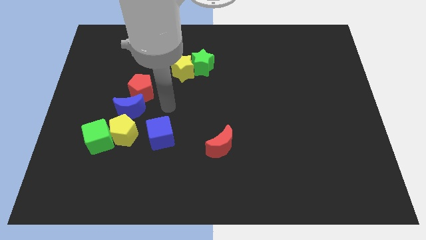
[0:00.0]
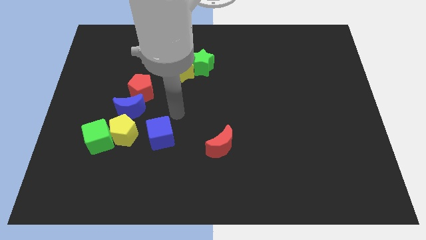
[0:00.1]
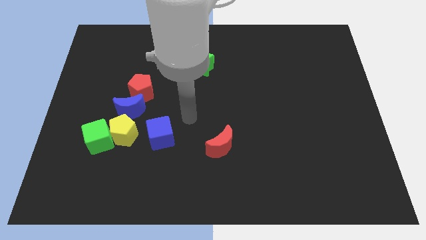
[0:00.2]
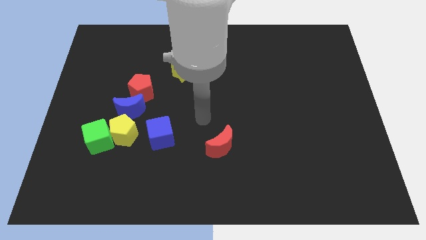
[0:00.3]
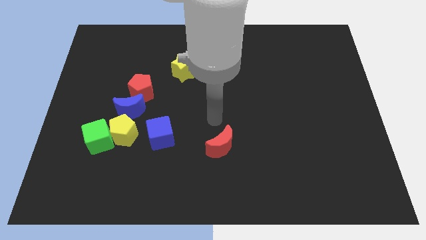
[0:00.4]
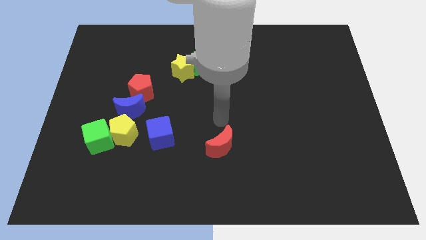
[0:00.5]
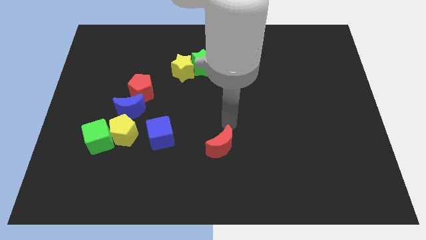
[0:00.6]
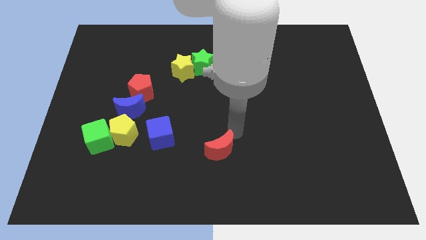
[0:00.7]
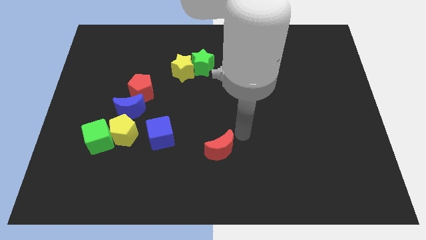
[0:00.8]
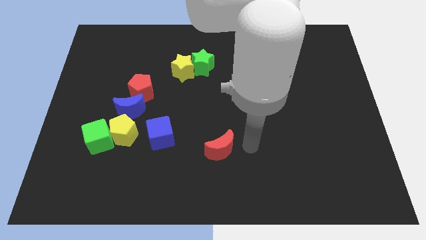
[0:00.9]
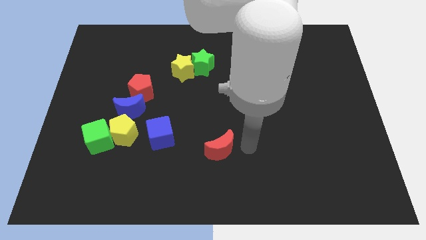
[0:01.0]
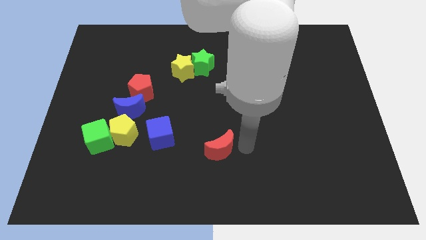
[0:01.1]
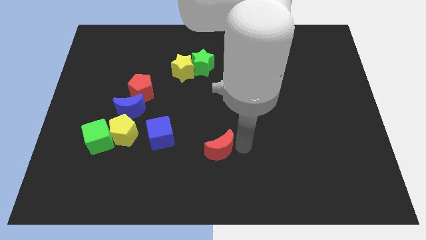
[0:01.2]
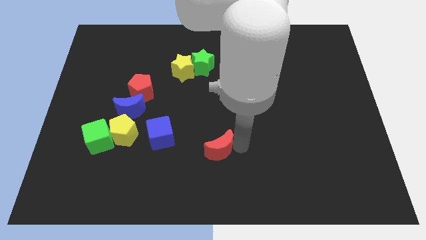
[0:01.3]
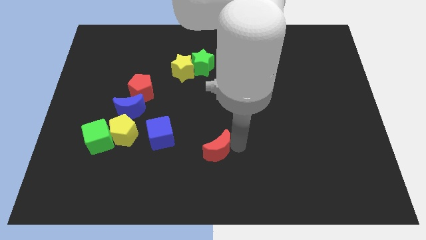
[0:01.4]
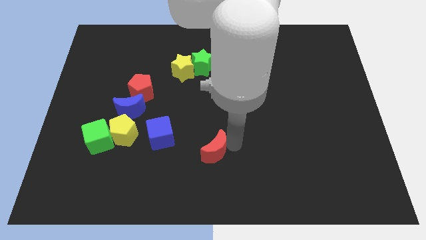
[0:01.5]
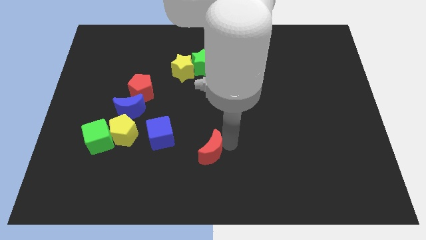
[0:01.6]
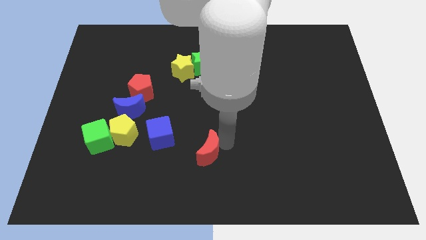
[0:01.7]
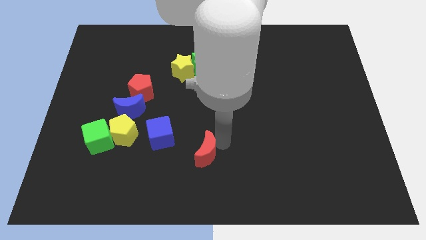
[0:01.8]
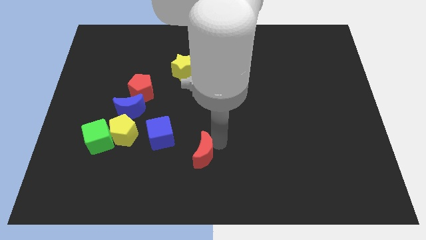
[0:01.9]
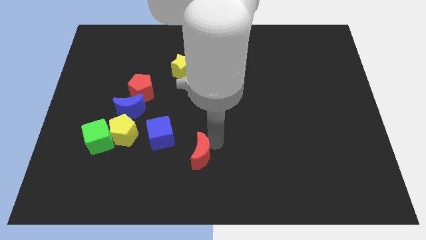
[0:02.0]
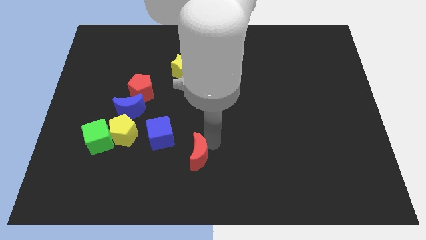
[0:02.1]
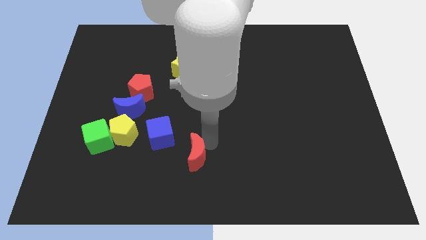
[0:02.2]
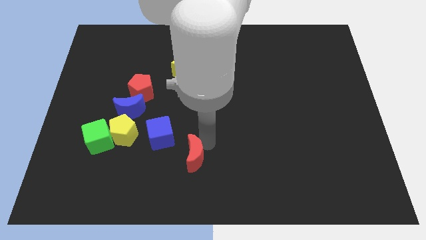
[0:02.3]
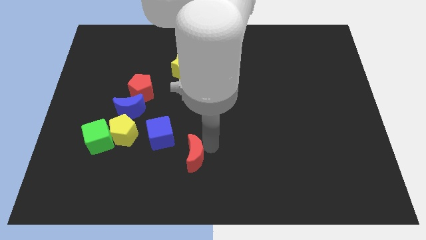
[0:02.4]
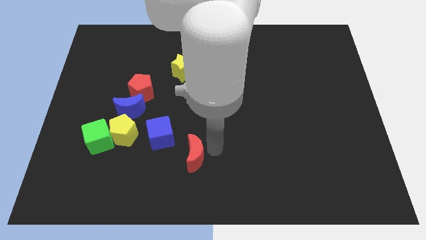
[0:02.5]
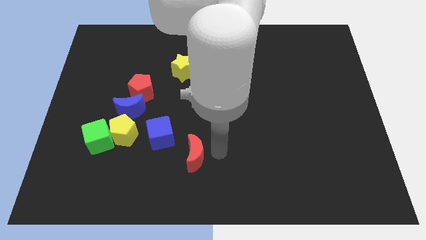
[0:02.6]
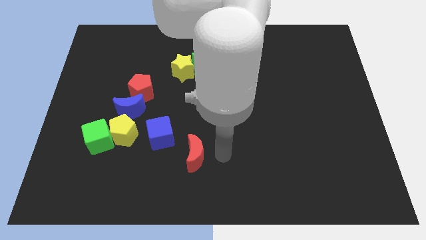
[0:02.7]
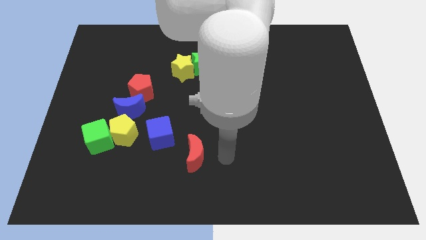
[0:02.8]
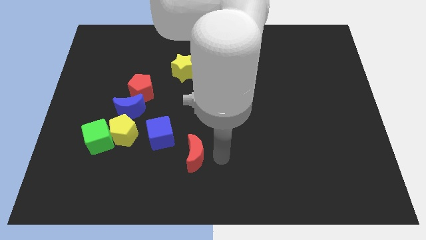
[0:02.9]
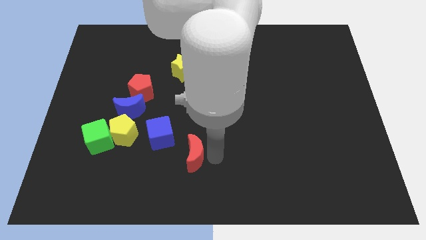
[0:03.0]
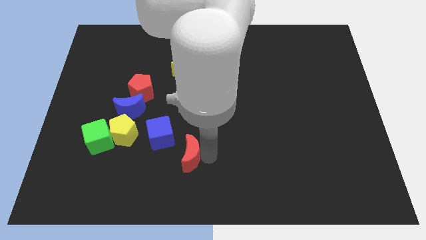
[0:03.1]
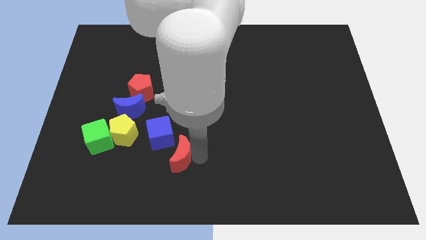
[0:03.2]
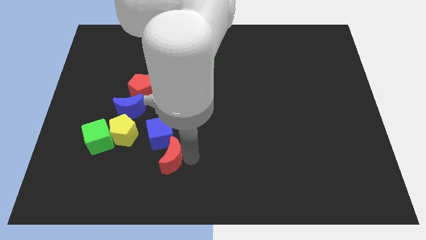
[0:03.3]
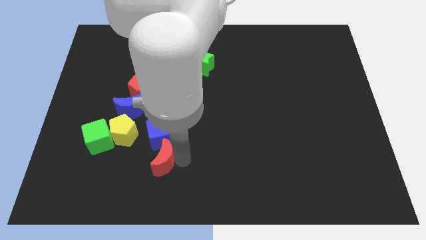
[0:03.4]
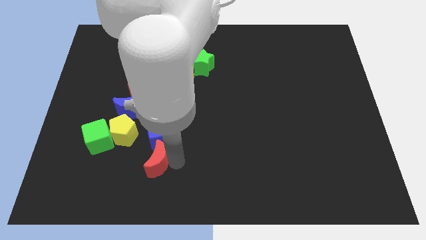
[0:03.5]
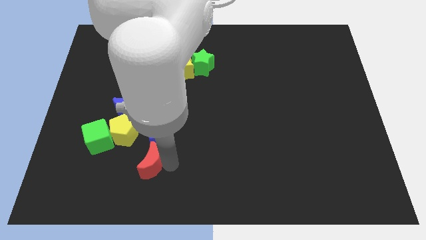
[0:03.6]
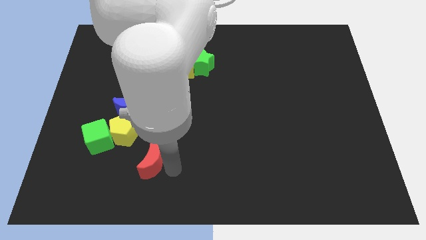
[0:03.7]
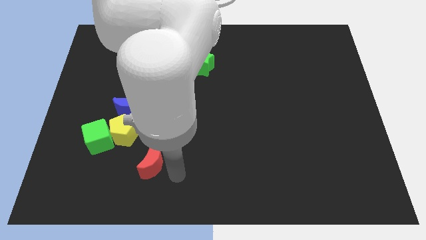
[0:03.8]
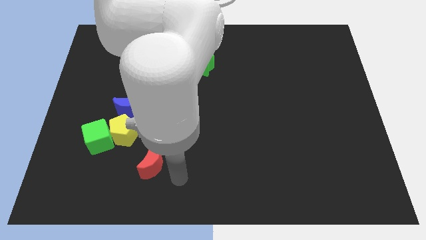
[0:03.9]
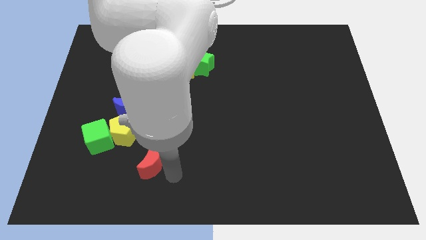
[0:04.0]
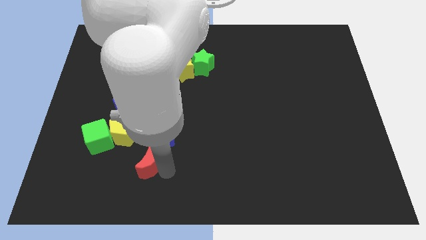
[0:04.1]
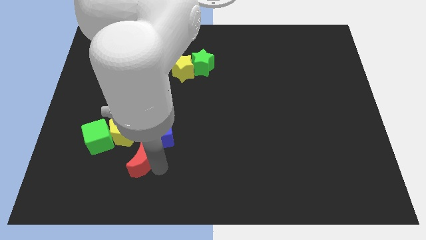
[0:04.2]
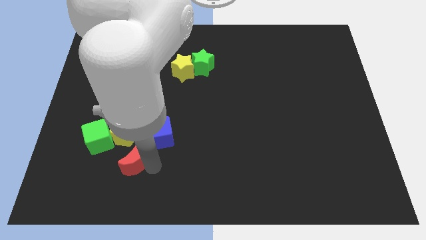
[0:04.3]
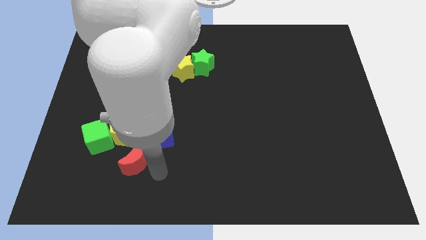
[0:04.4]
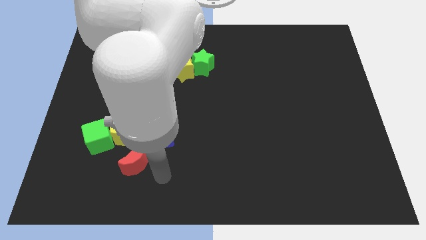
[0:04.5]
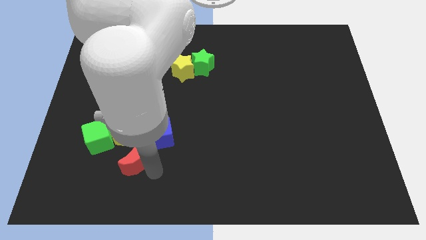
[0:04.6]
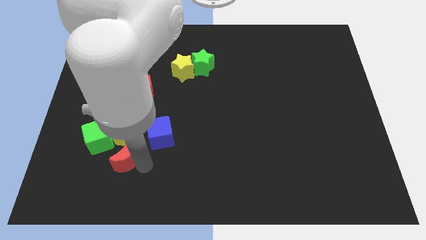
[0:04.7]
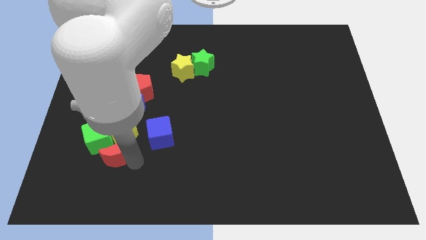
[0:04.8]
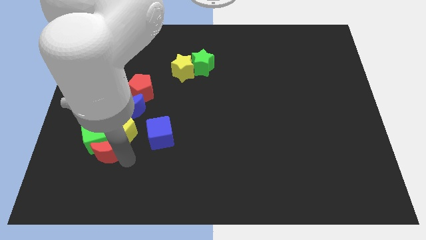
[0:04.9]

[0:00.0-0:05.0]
slide the red moon next to the green cube

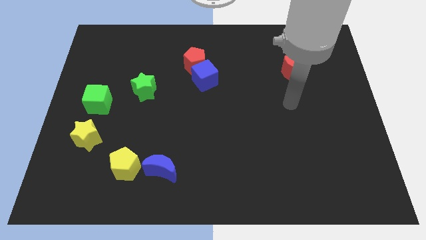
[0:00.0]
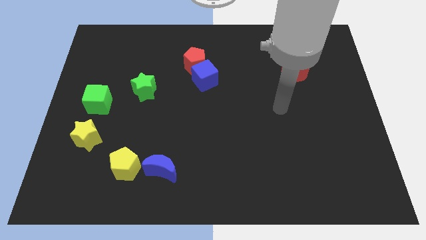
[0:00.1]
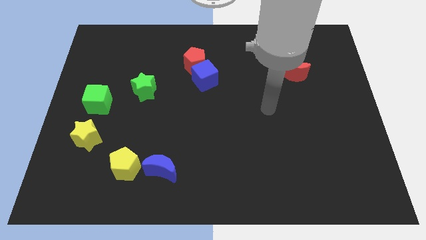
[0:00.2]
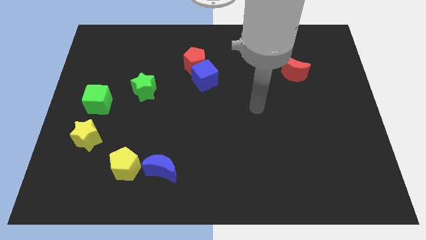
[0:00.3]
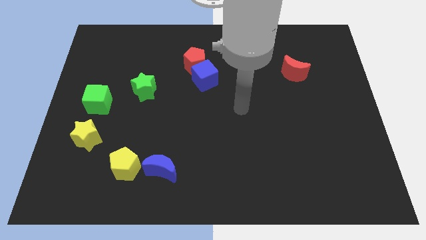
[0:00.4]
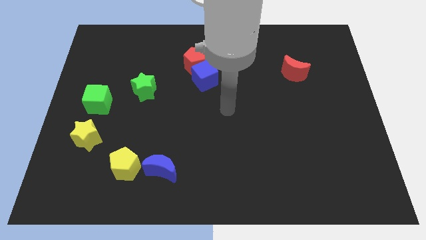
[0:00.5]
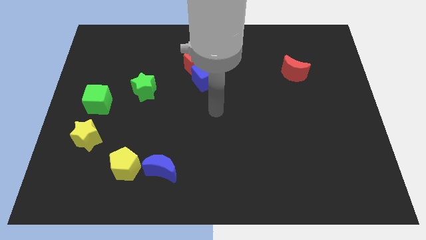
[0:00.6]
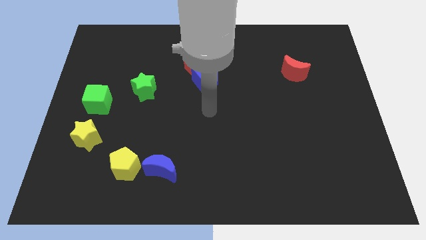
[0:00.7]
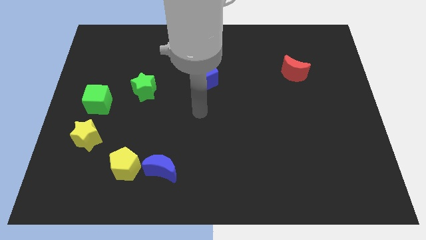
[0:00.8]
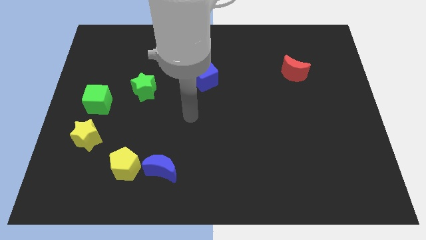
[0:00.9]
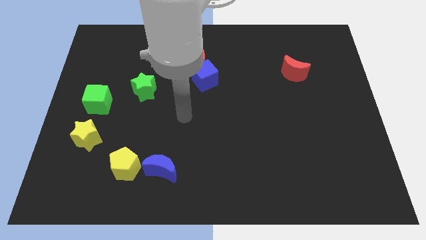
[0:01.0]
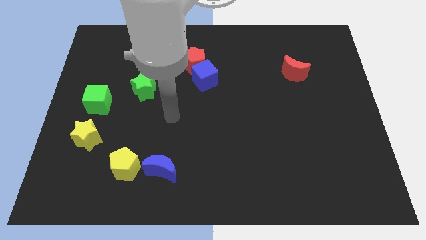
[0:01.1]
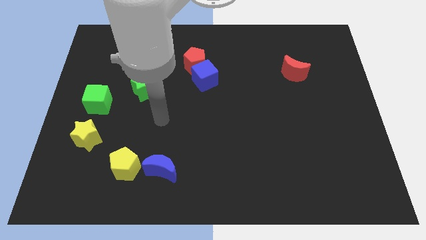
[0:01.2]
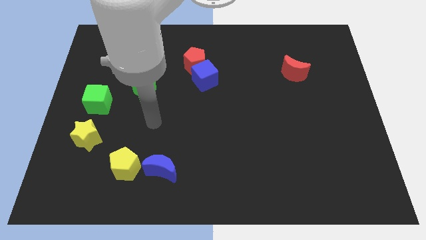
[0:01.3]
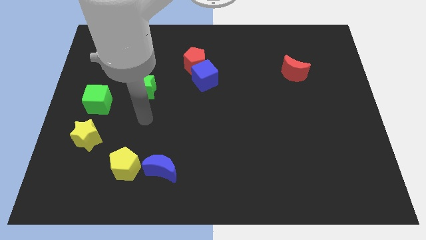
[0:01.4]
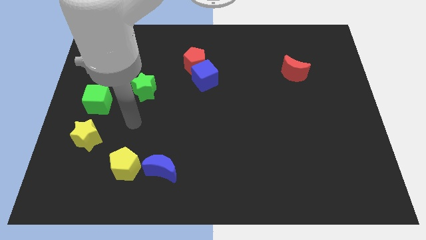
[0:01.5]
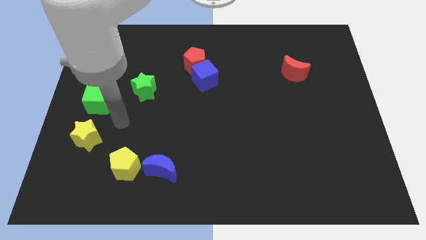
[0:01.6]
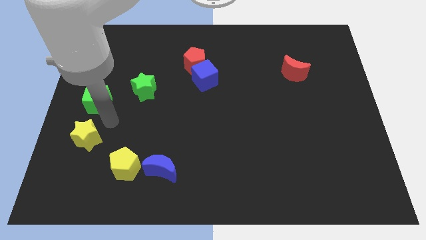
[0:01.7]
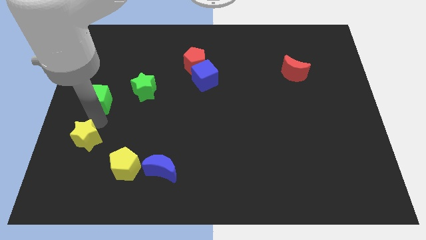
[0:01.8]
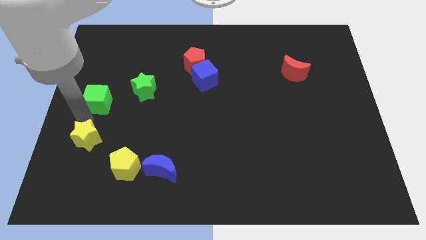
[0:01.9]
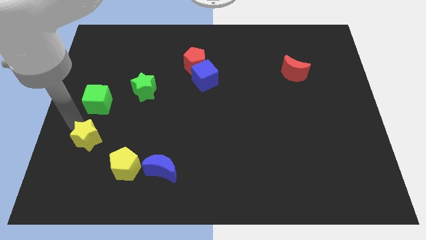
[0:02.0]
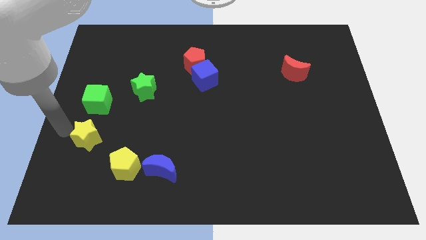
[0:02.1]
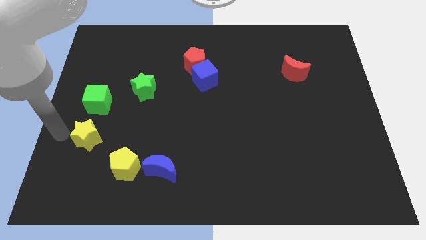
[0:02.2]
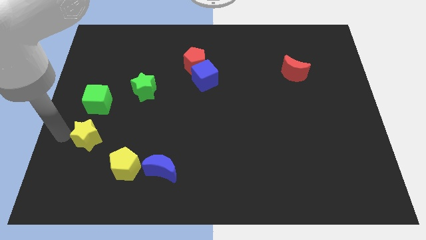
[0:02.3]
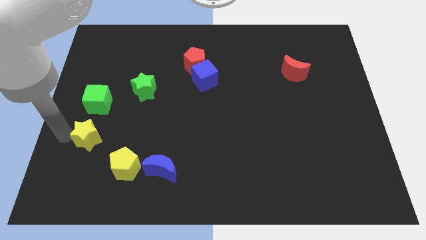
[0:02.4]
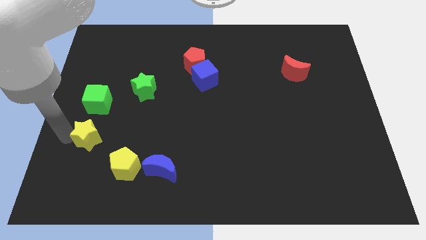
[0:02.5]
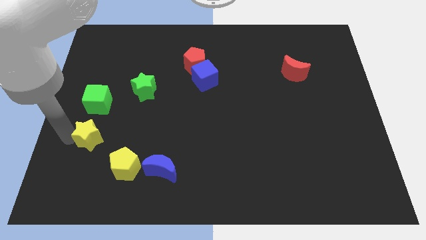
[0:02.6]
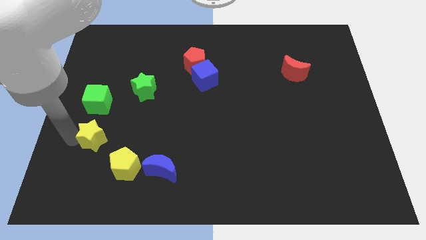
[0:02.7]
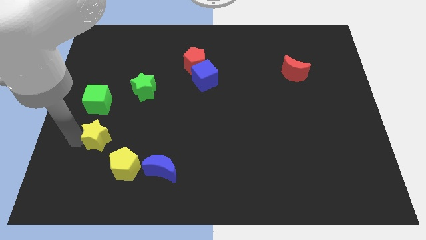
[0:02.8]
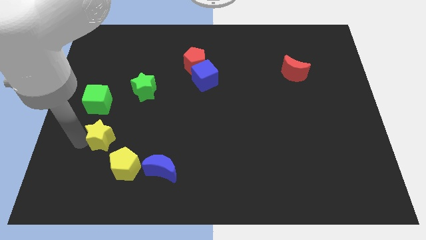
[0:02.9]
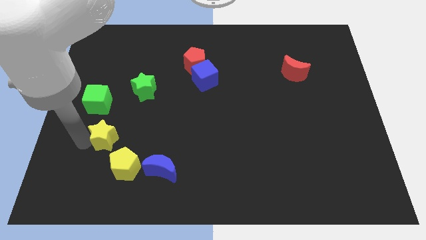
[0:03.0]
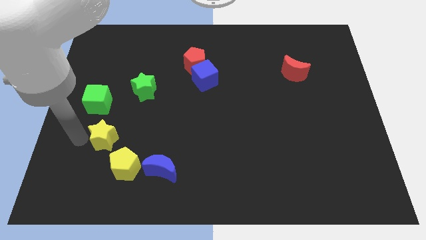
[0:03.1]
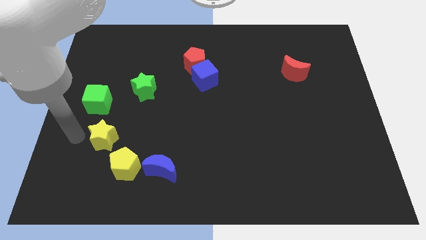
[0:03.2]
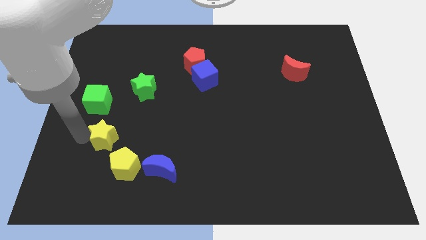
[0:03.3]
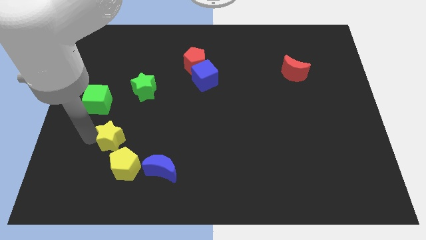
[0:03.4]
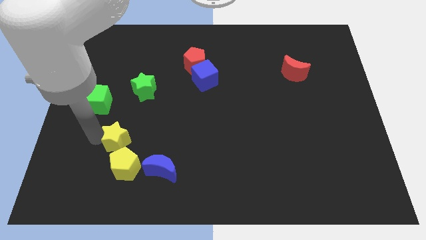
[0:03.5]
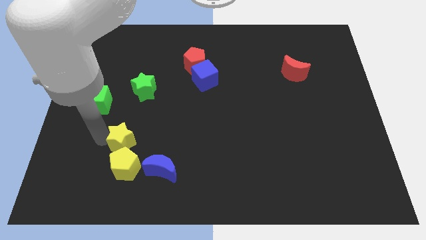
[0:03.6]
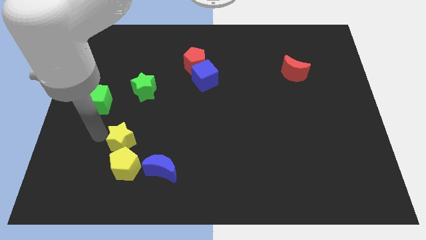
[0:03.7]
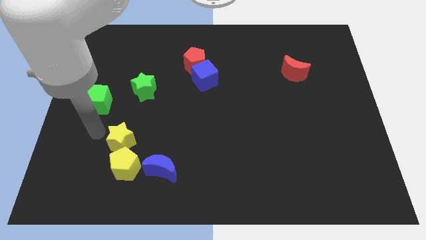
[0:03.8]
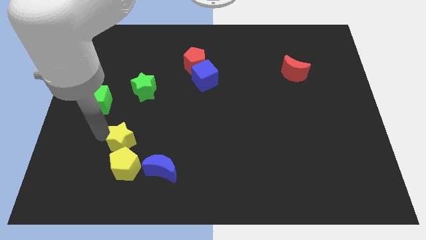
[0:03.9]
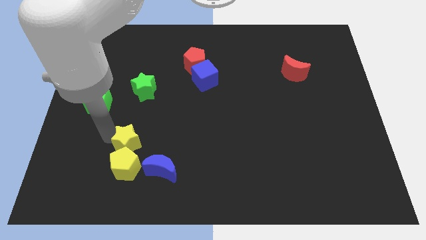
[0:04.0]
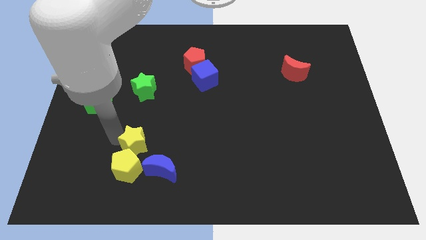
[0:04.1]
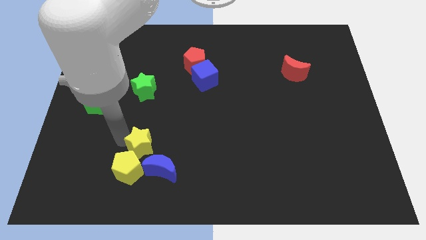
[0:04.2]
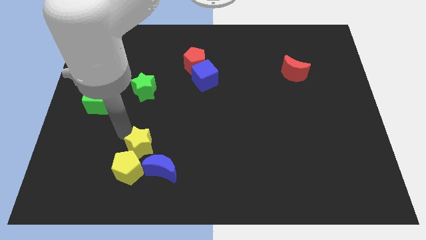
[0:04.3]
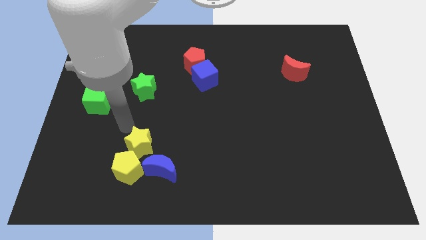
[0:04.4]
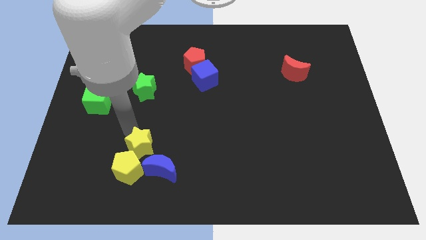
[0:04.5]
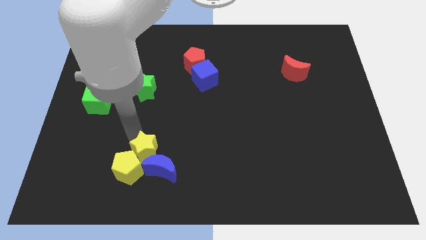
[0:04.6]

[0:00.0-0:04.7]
put the yellow star to the blue moon
